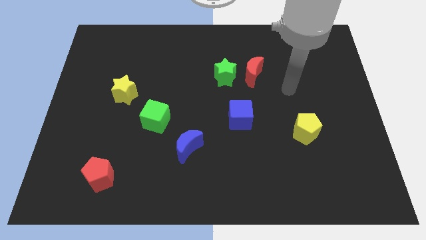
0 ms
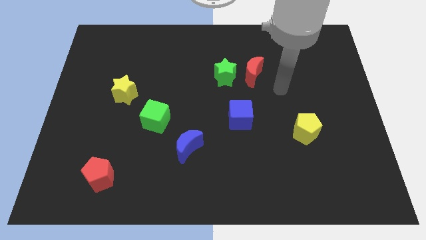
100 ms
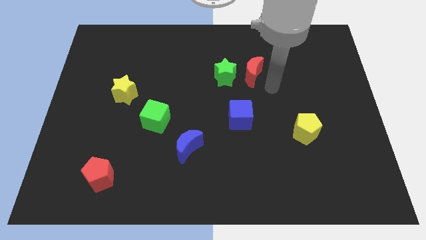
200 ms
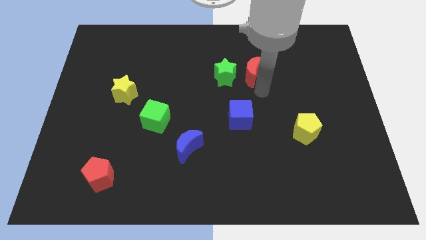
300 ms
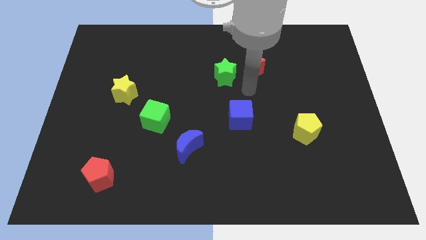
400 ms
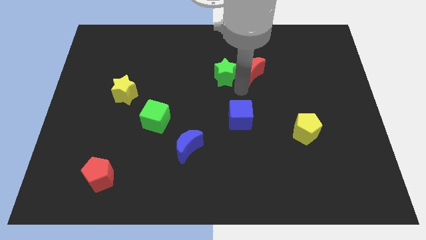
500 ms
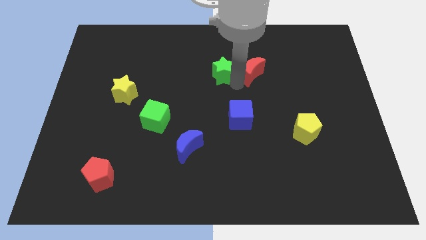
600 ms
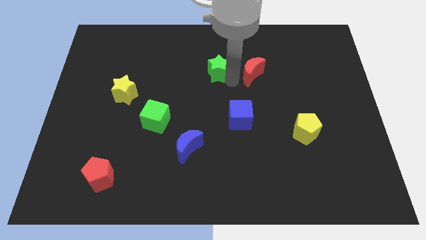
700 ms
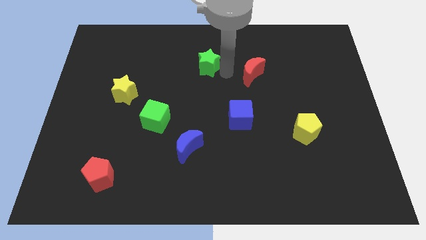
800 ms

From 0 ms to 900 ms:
move the red moon away from the green star

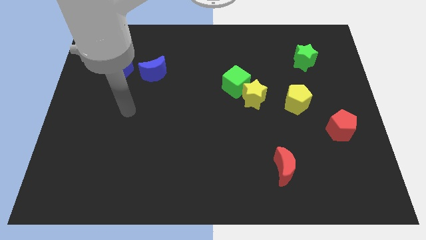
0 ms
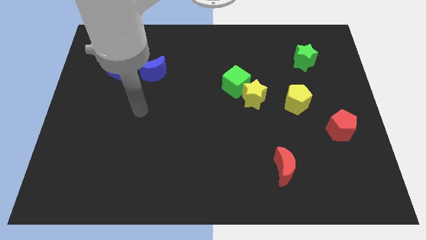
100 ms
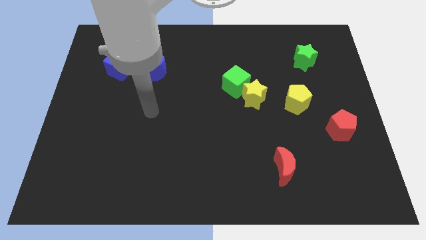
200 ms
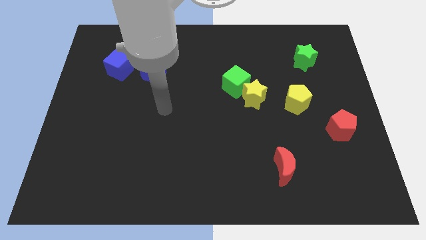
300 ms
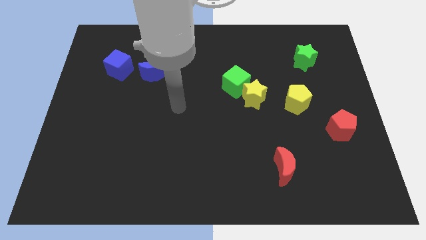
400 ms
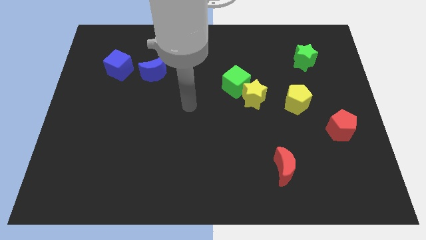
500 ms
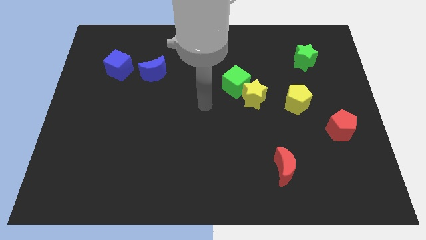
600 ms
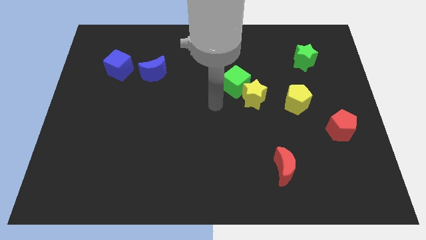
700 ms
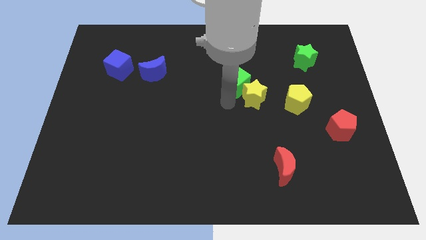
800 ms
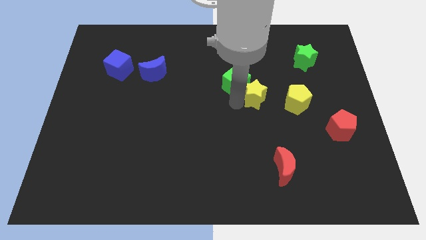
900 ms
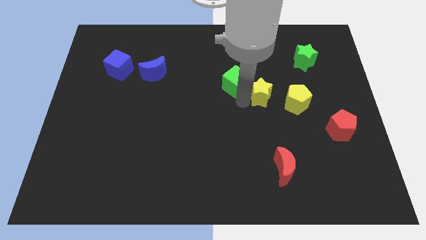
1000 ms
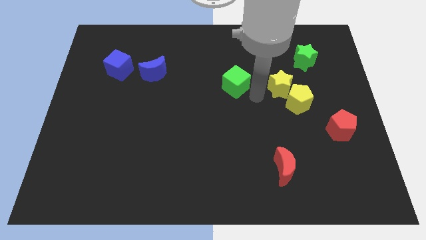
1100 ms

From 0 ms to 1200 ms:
separate the green cube from the yellow star

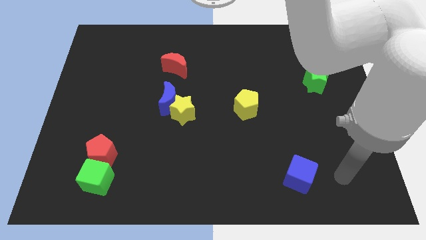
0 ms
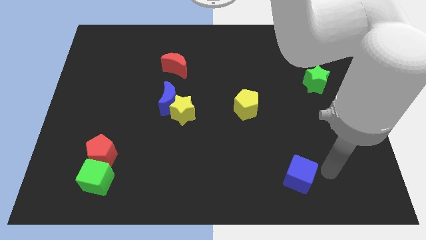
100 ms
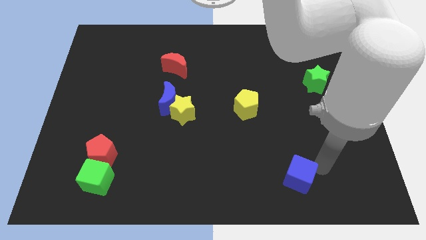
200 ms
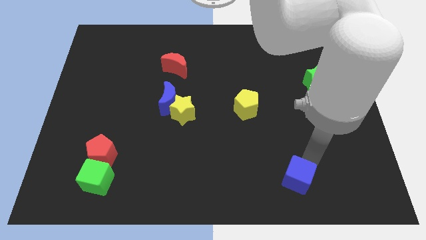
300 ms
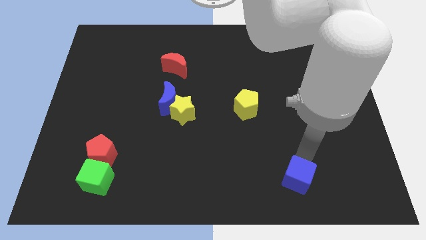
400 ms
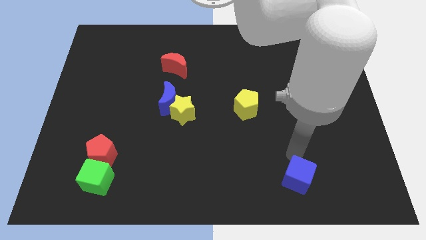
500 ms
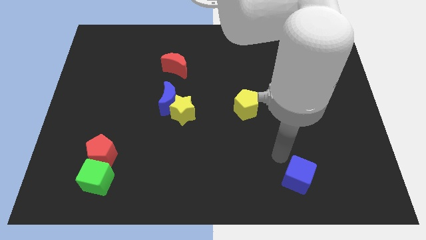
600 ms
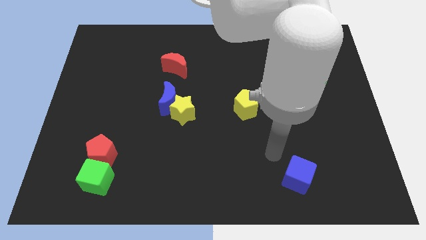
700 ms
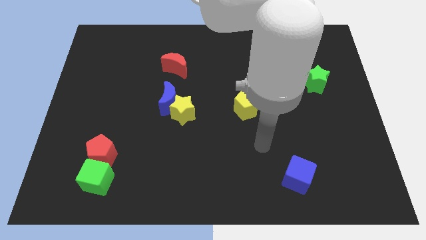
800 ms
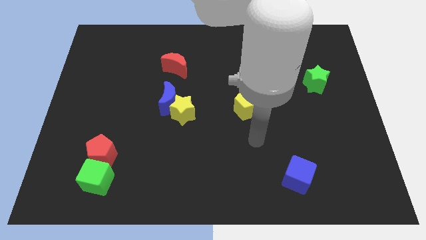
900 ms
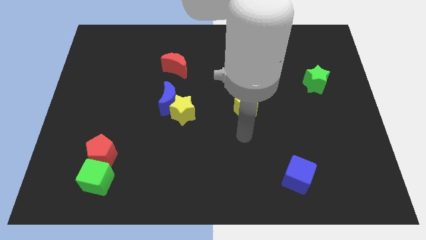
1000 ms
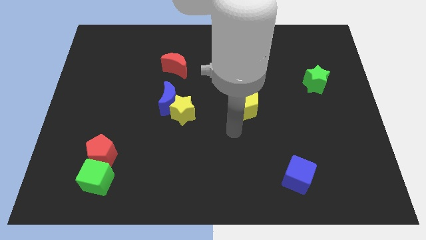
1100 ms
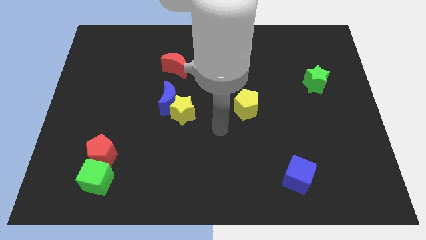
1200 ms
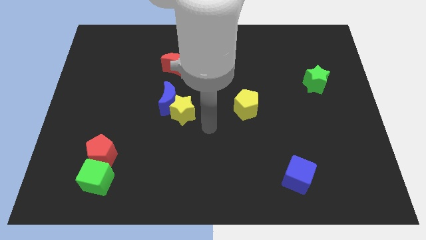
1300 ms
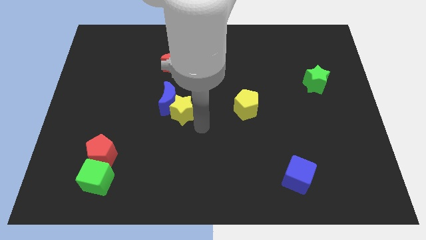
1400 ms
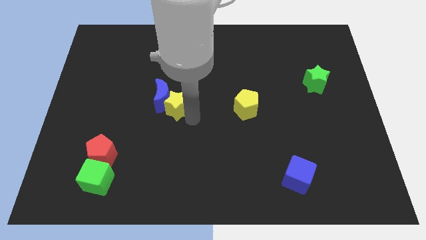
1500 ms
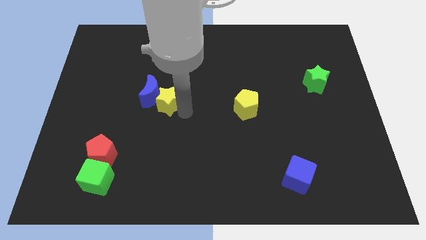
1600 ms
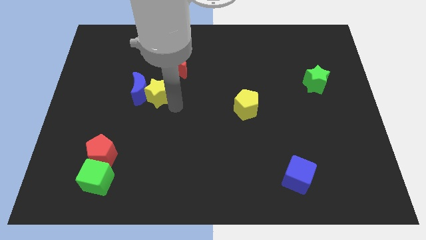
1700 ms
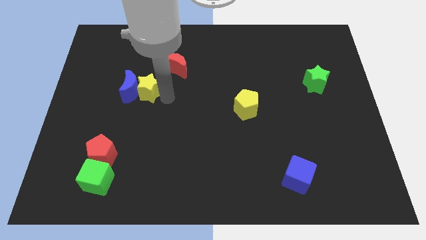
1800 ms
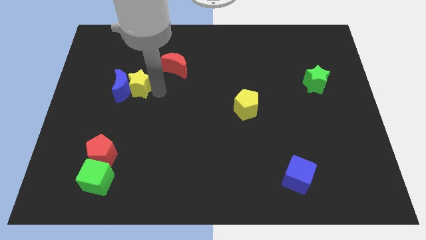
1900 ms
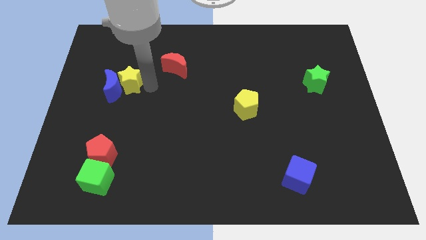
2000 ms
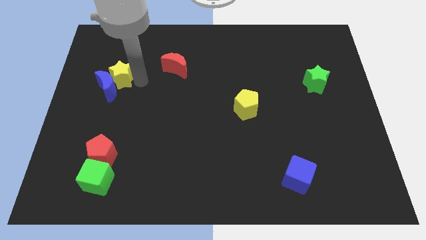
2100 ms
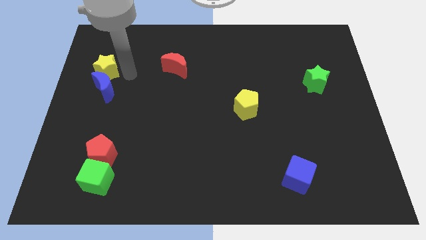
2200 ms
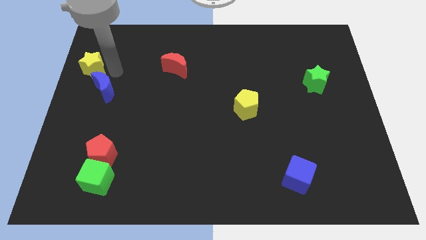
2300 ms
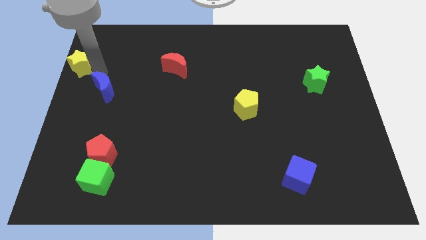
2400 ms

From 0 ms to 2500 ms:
move the blue moon away from the yellow star

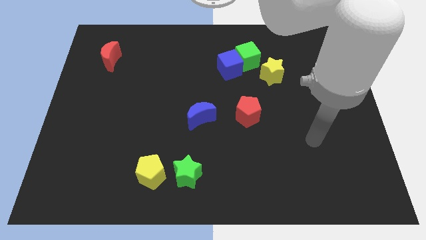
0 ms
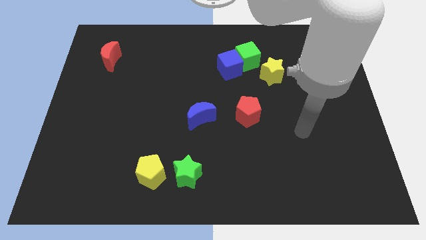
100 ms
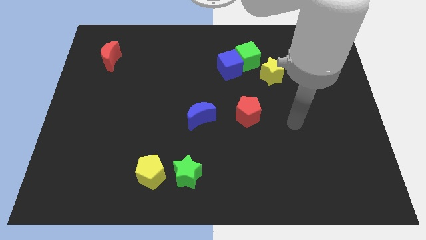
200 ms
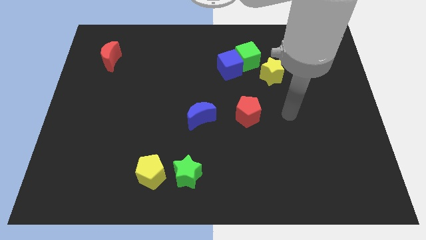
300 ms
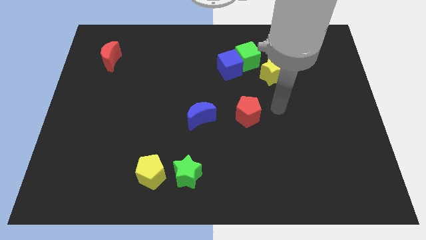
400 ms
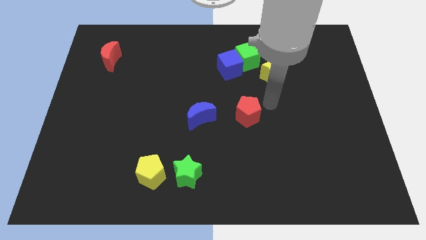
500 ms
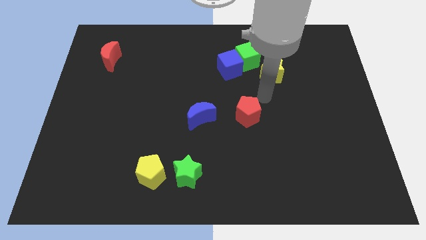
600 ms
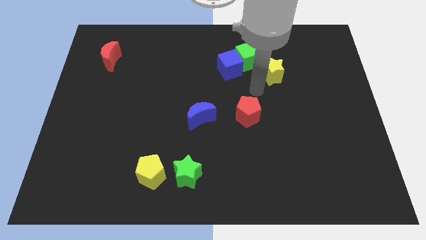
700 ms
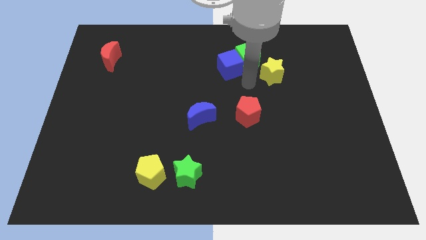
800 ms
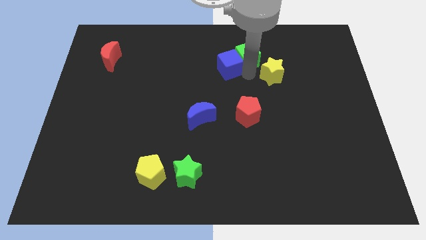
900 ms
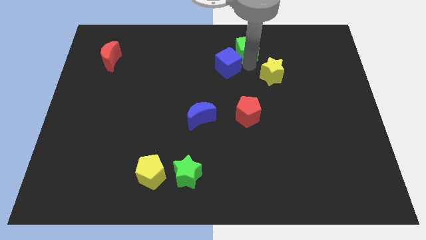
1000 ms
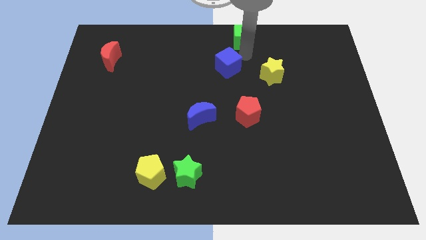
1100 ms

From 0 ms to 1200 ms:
separate the blue cube from the green cube

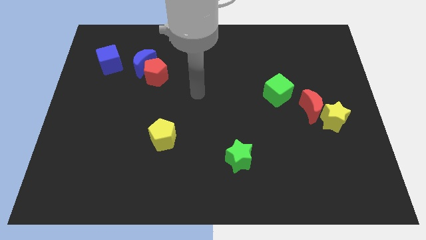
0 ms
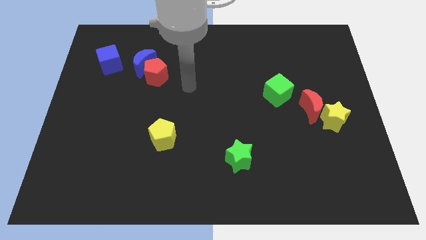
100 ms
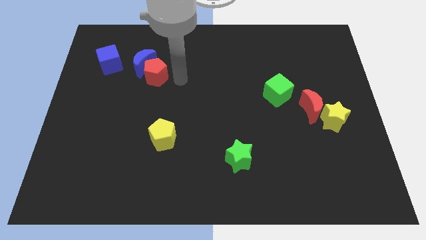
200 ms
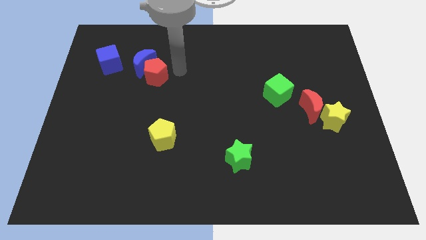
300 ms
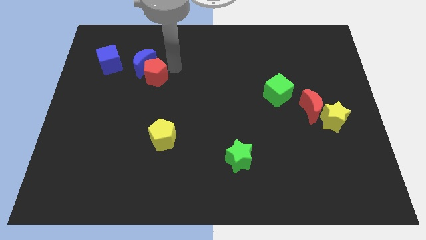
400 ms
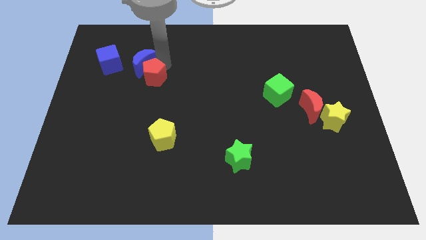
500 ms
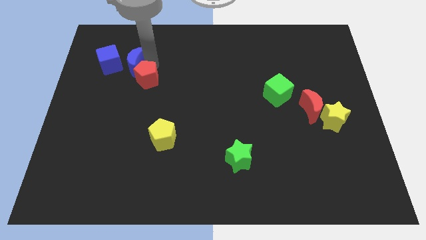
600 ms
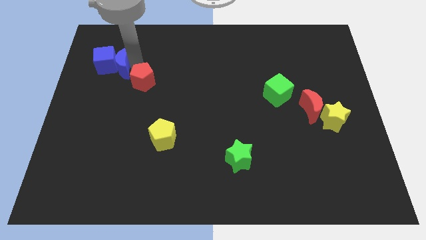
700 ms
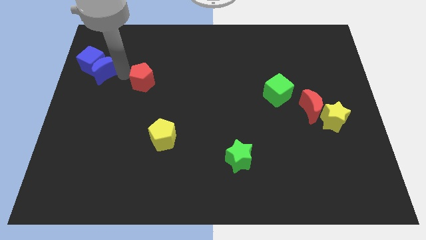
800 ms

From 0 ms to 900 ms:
pull the red pentagon apart from the blue moon

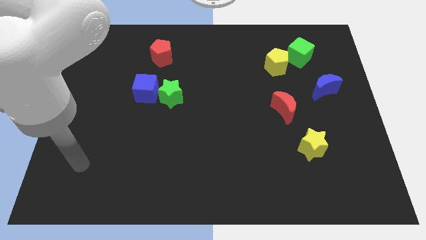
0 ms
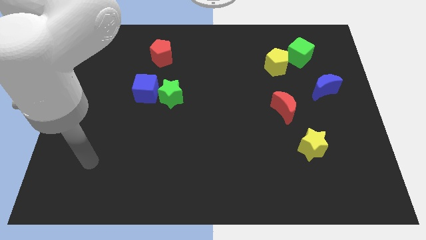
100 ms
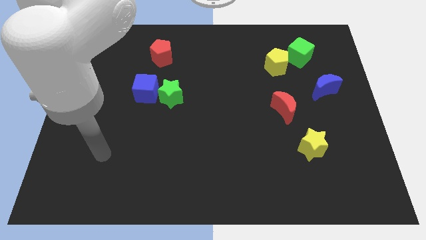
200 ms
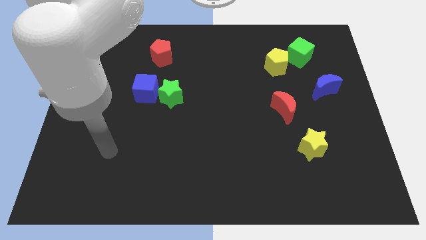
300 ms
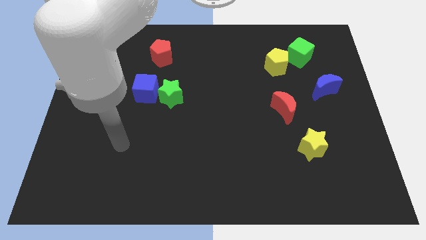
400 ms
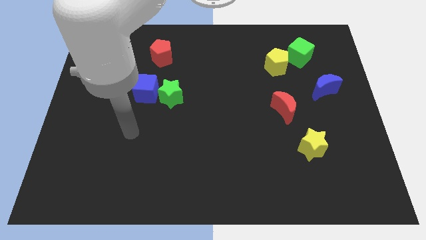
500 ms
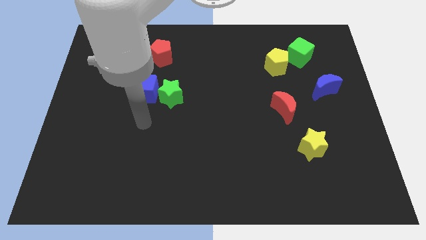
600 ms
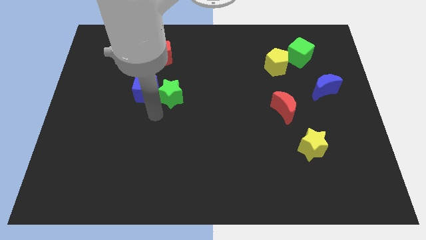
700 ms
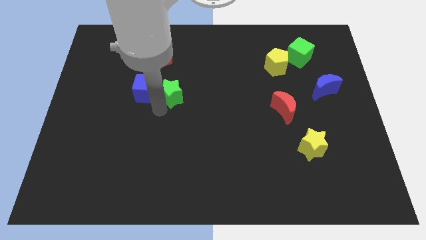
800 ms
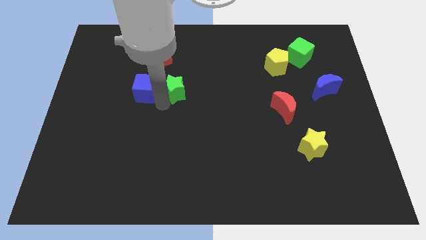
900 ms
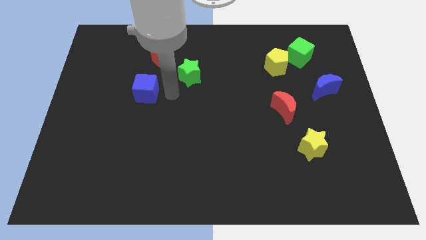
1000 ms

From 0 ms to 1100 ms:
separate the blue cube from the green star

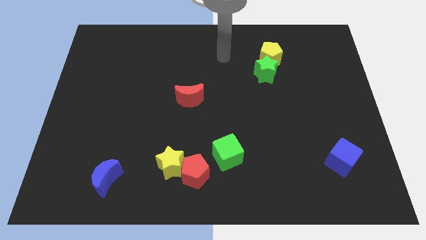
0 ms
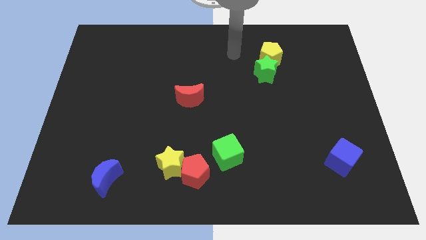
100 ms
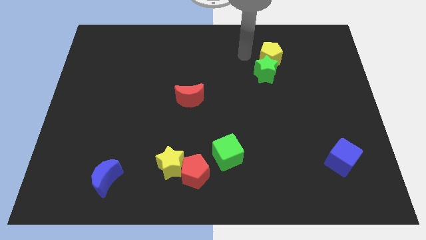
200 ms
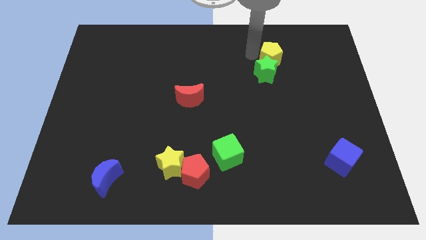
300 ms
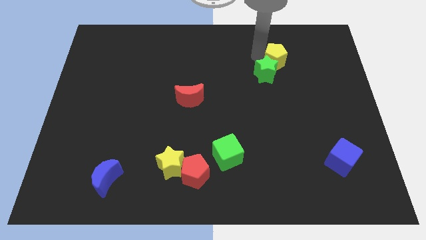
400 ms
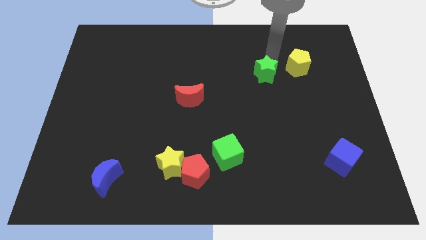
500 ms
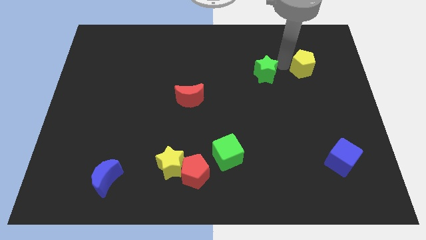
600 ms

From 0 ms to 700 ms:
separate the green star from the yellow pentagon

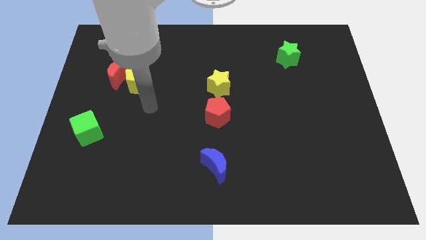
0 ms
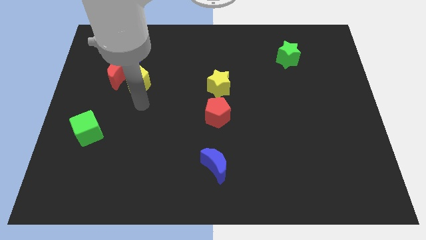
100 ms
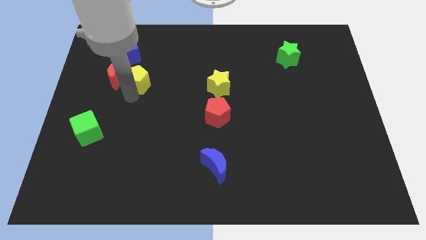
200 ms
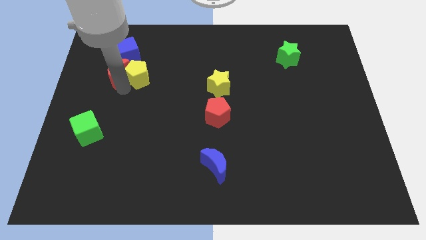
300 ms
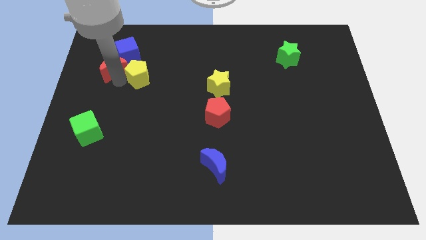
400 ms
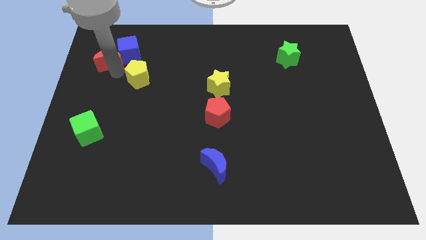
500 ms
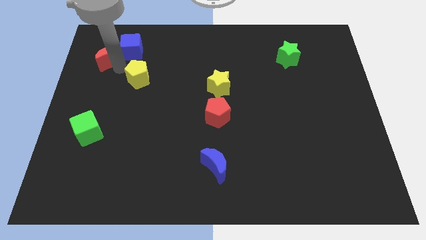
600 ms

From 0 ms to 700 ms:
pull the yellow pentagon apart from the red moon

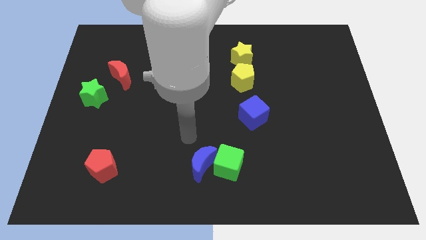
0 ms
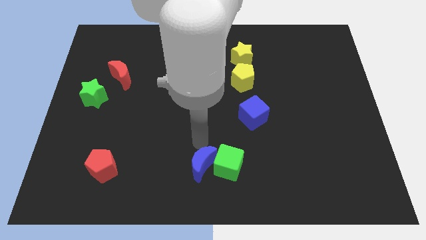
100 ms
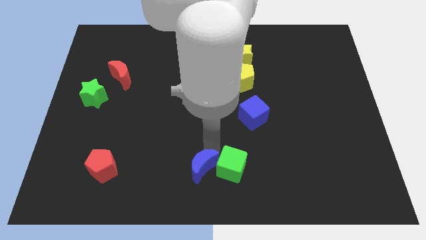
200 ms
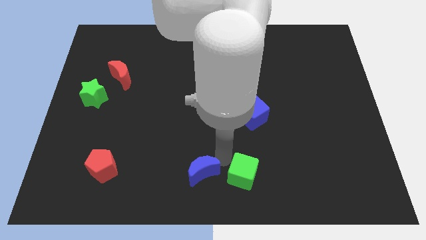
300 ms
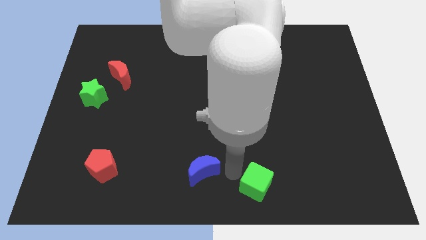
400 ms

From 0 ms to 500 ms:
pull the blue moon apart from the green cube
